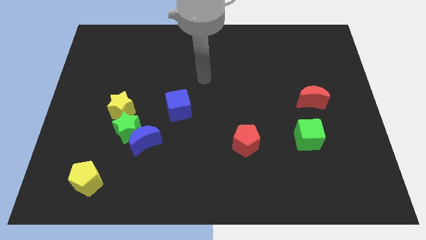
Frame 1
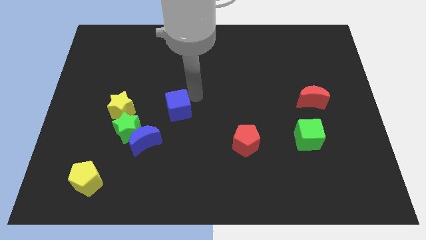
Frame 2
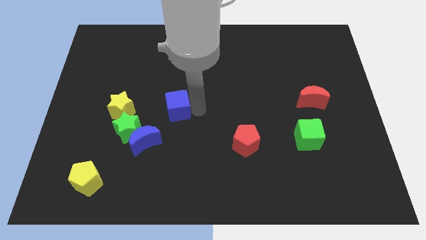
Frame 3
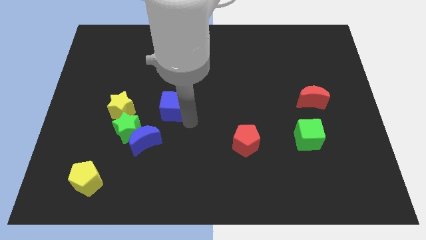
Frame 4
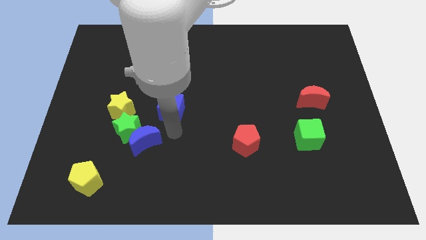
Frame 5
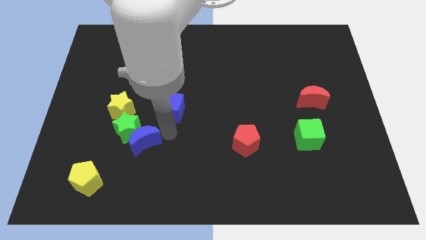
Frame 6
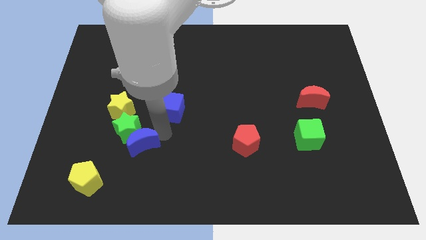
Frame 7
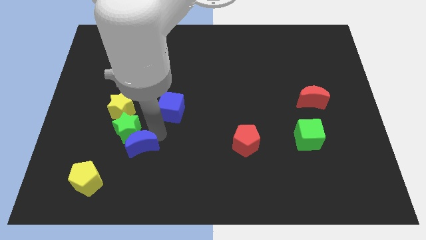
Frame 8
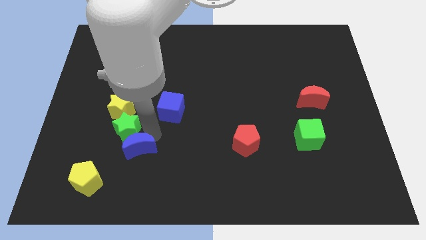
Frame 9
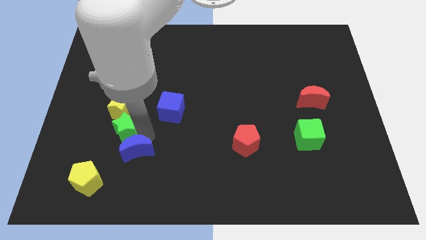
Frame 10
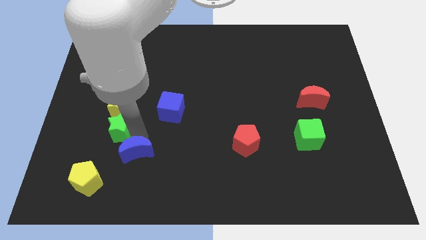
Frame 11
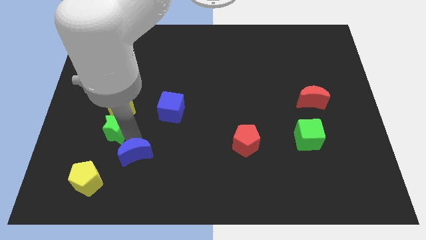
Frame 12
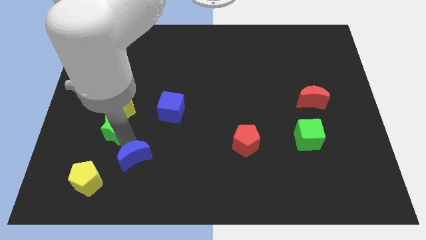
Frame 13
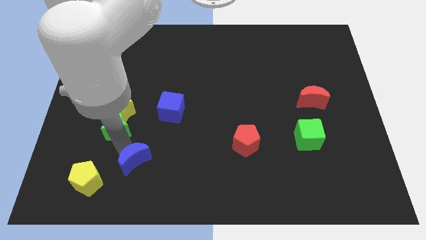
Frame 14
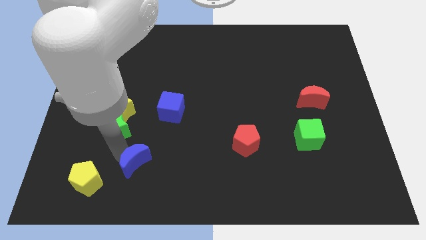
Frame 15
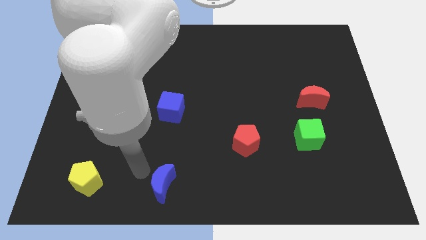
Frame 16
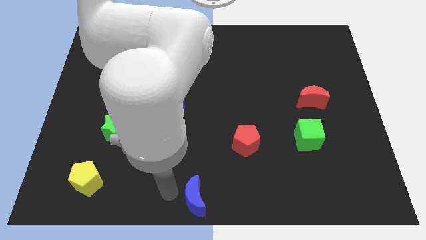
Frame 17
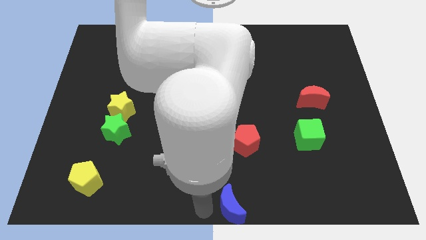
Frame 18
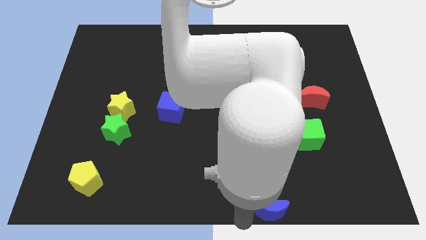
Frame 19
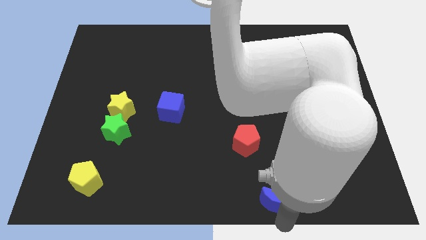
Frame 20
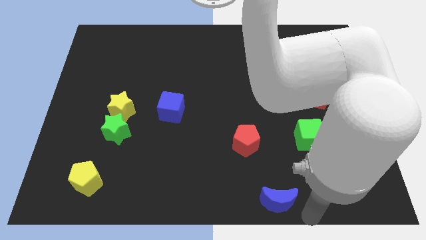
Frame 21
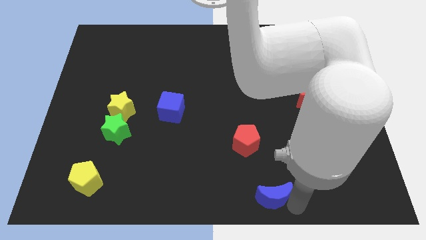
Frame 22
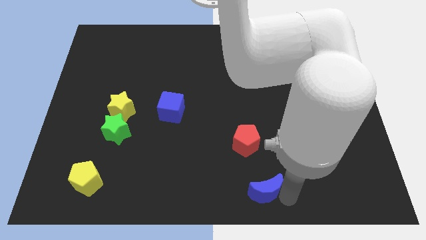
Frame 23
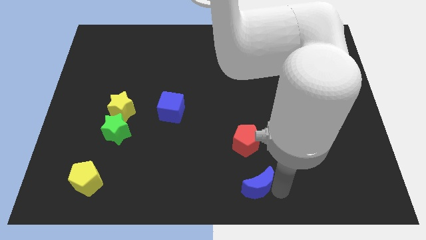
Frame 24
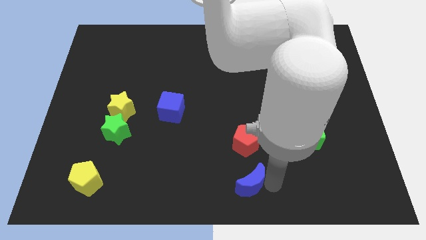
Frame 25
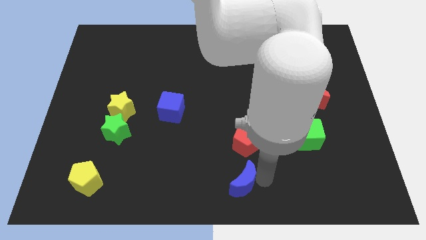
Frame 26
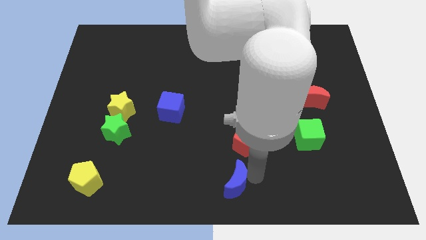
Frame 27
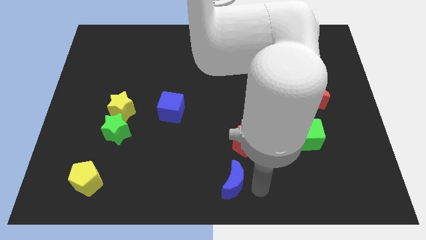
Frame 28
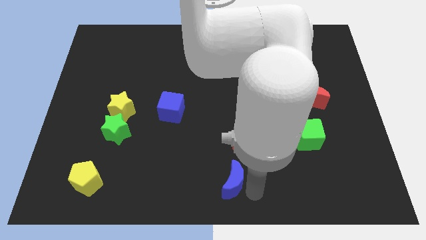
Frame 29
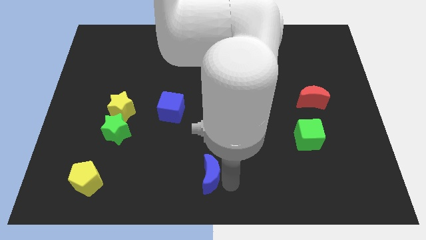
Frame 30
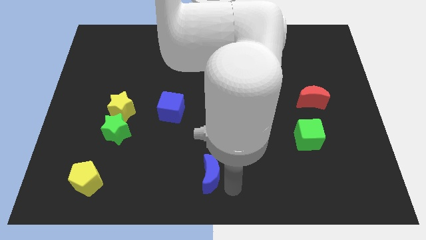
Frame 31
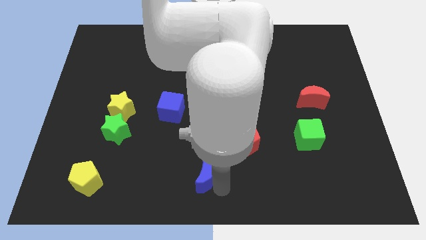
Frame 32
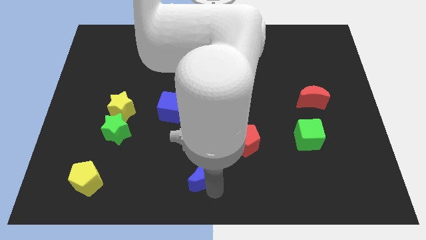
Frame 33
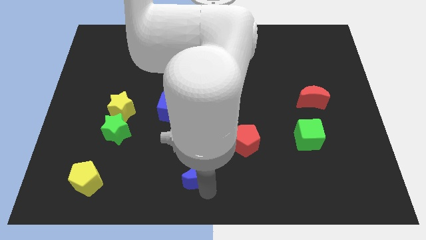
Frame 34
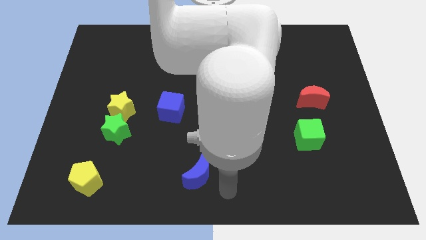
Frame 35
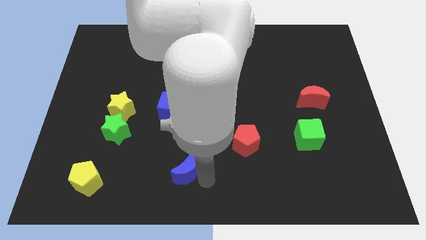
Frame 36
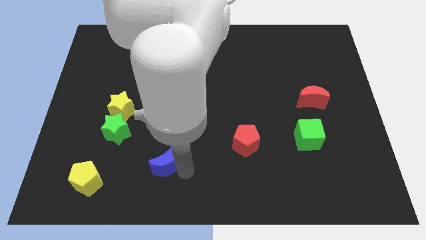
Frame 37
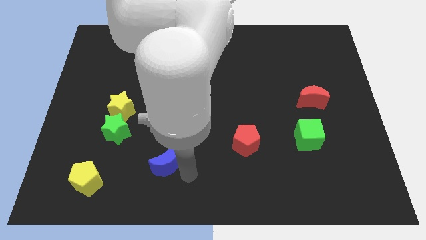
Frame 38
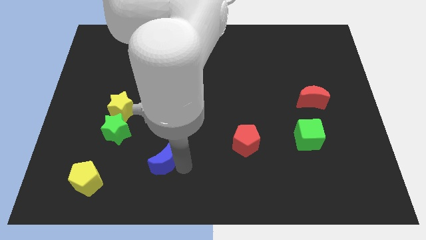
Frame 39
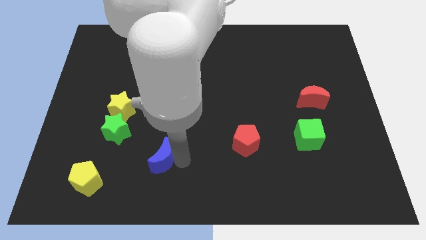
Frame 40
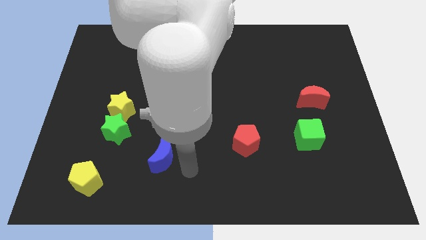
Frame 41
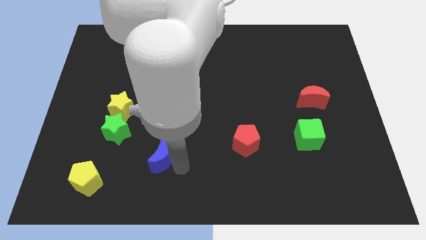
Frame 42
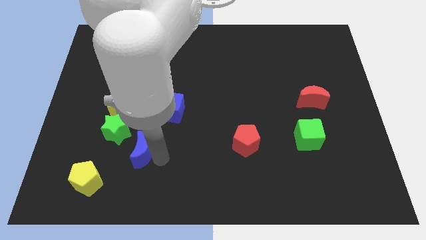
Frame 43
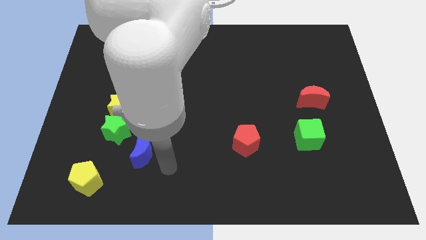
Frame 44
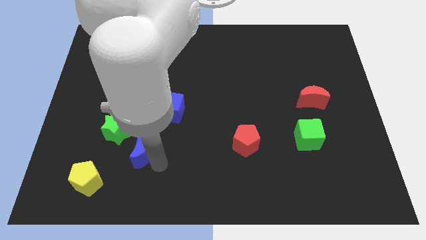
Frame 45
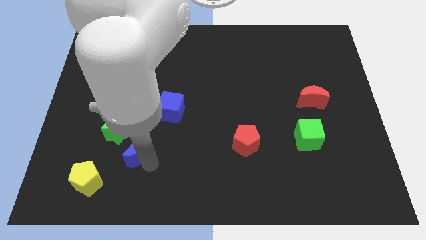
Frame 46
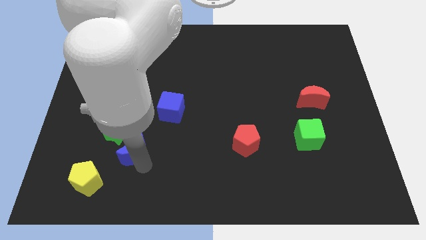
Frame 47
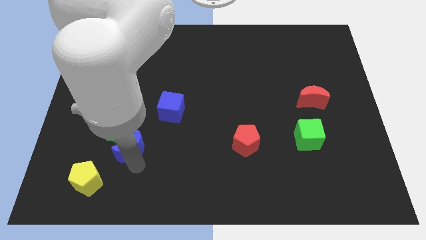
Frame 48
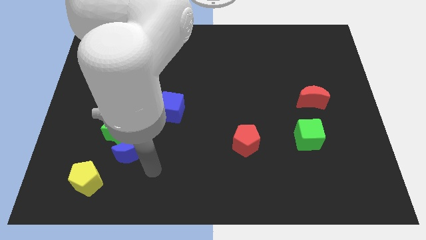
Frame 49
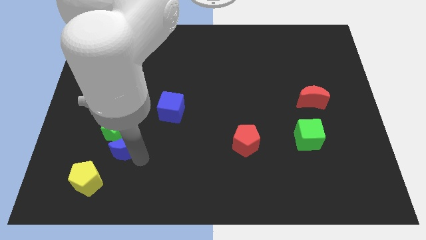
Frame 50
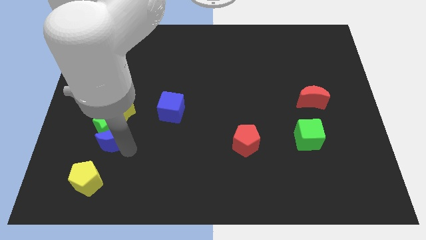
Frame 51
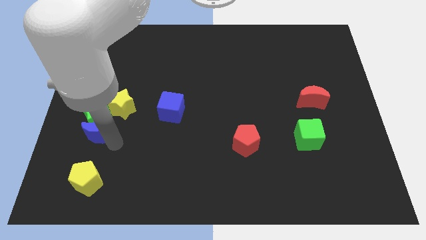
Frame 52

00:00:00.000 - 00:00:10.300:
slide the blue moon upwards and then left a bit

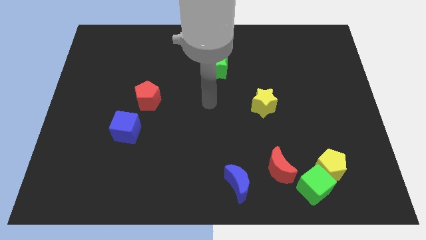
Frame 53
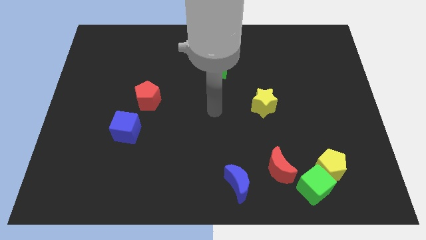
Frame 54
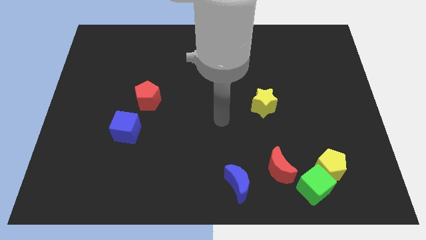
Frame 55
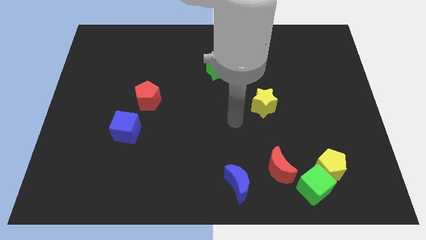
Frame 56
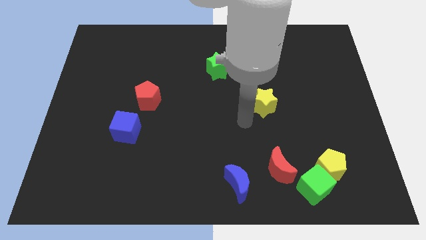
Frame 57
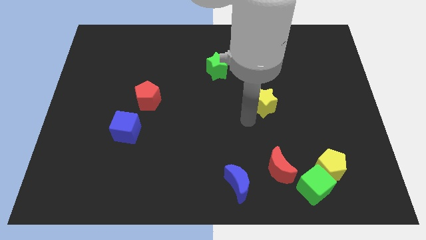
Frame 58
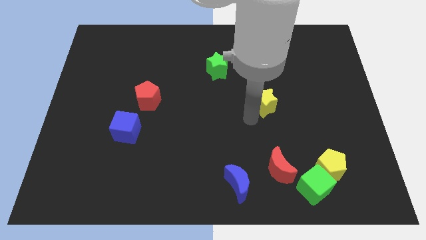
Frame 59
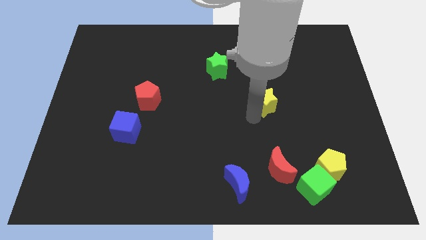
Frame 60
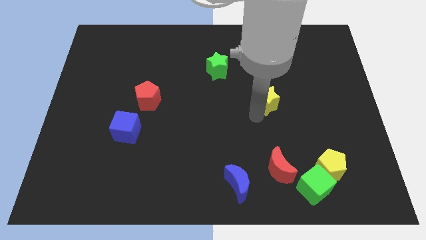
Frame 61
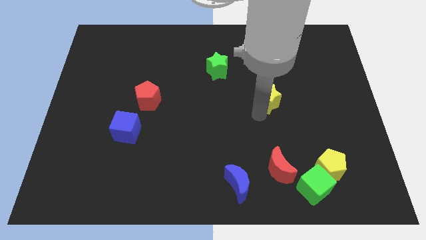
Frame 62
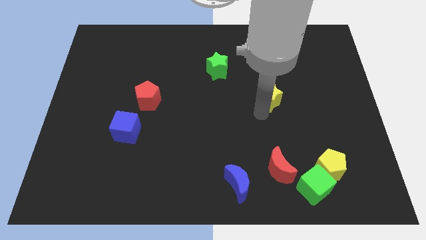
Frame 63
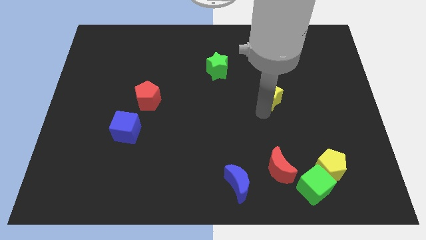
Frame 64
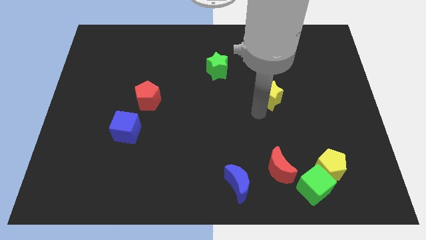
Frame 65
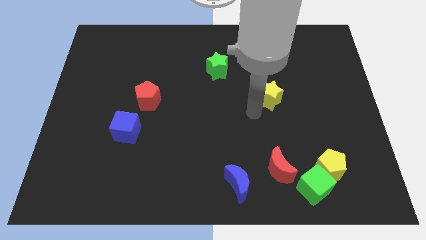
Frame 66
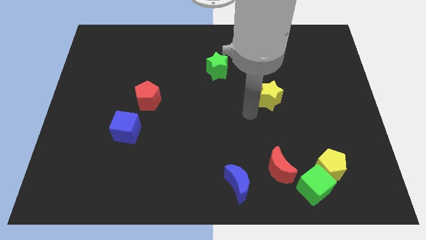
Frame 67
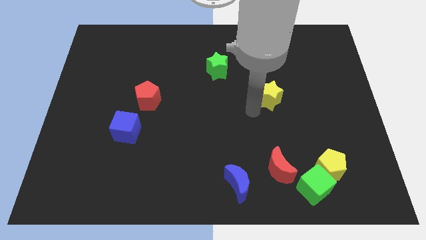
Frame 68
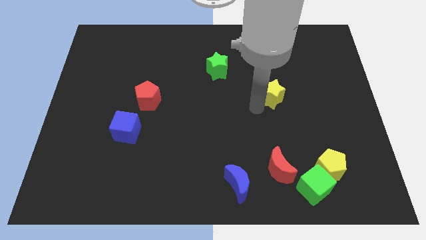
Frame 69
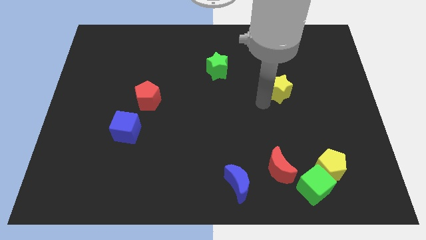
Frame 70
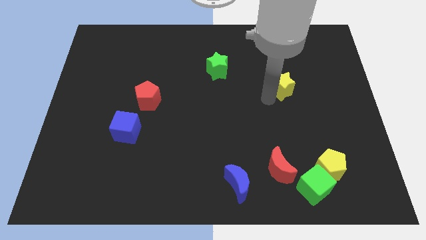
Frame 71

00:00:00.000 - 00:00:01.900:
push the yellow star a little bit up and then to the right

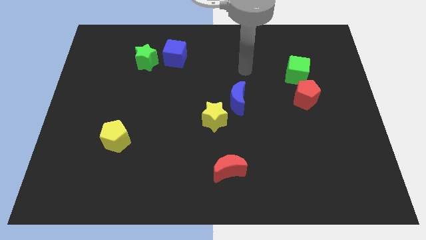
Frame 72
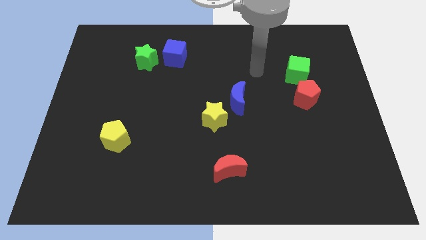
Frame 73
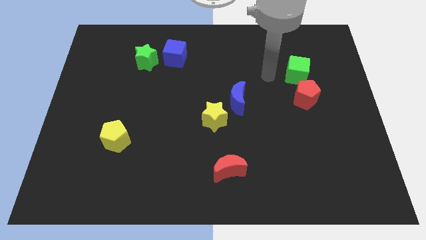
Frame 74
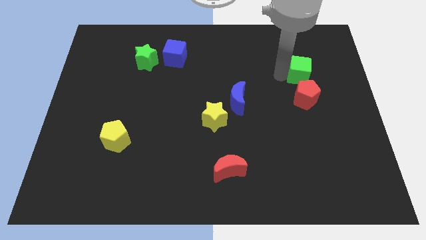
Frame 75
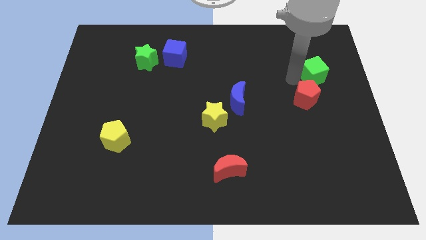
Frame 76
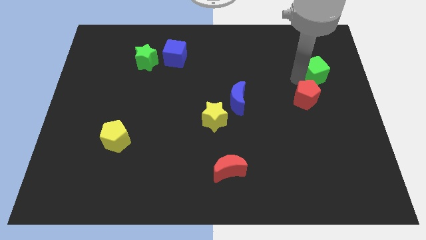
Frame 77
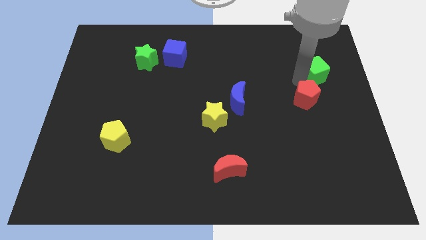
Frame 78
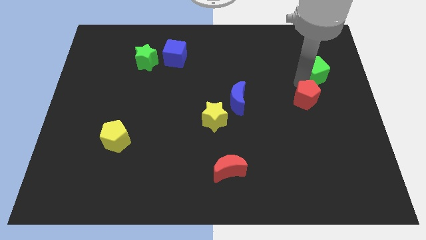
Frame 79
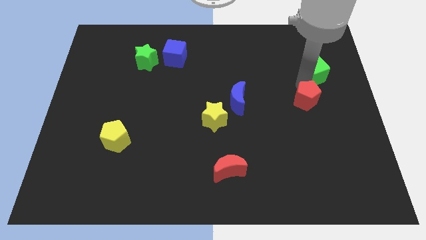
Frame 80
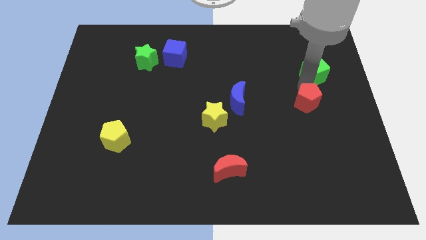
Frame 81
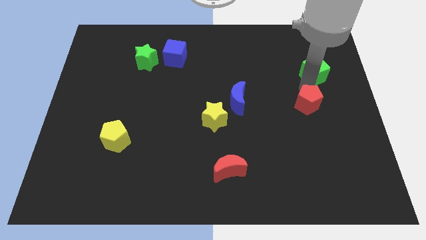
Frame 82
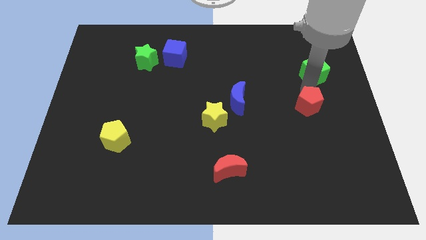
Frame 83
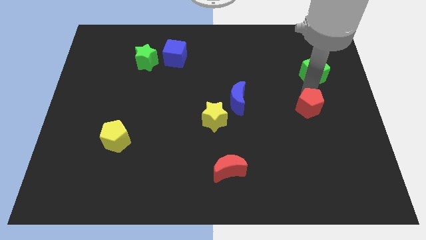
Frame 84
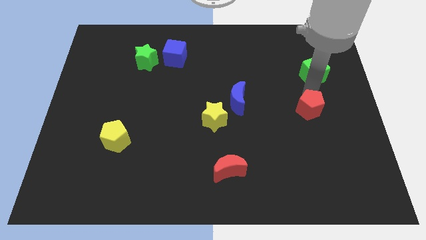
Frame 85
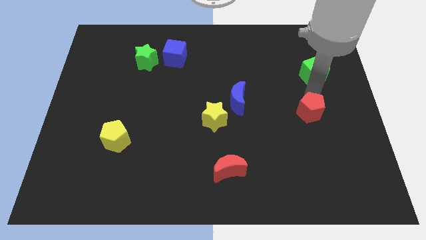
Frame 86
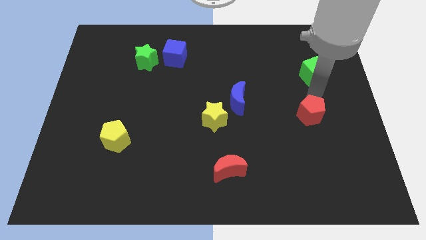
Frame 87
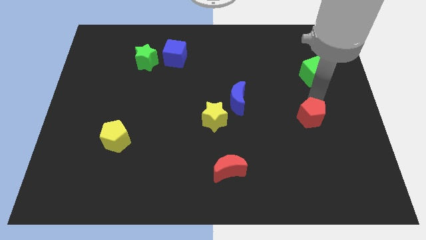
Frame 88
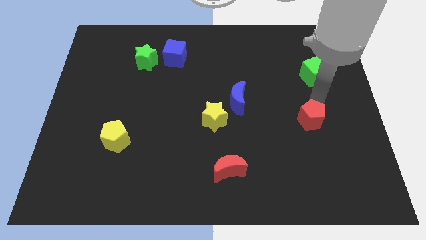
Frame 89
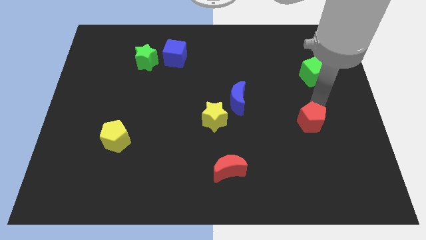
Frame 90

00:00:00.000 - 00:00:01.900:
slide the red pentagon down a little bit
